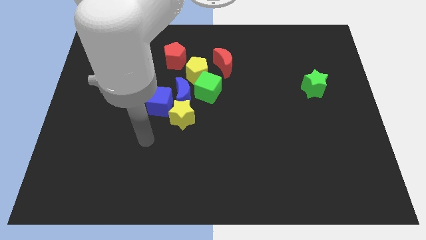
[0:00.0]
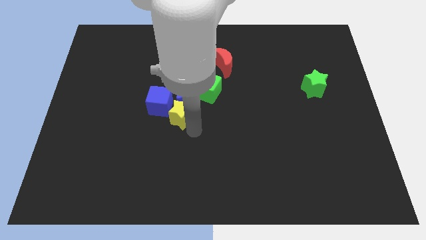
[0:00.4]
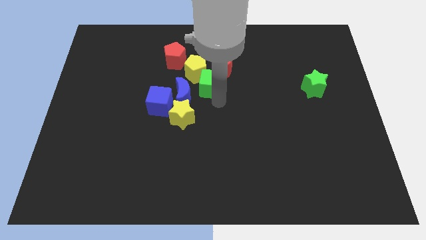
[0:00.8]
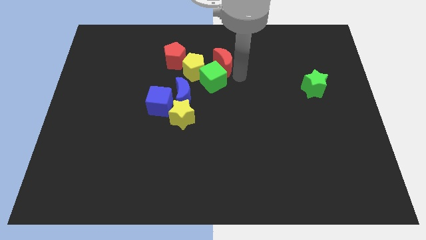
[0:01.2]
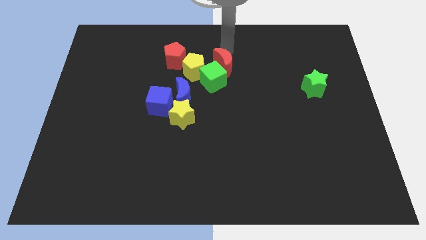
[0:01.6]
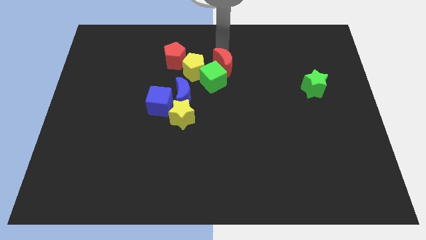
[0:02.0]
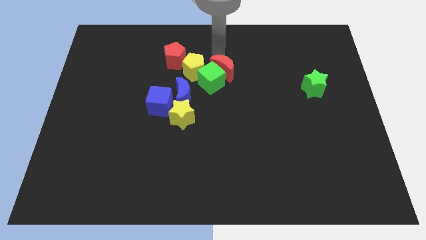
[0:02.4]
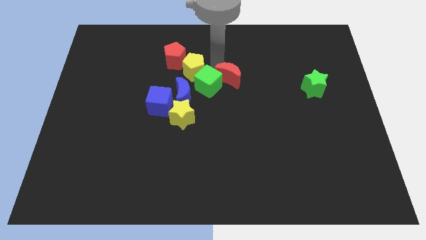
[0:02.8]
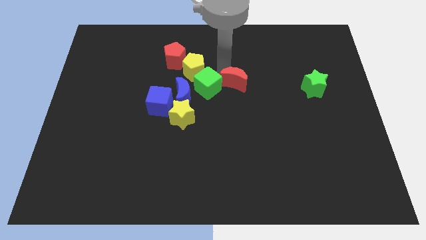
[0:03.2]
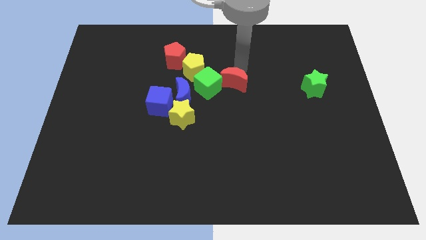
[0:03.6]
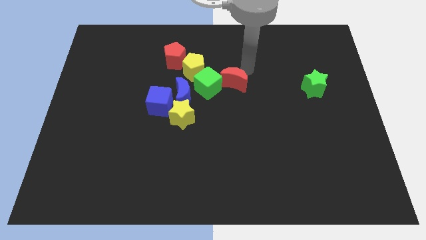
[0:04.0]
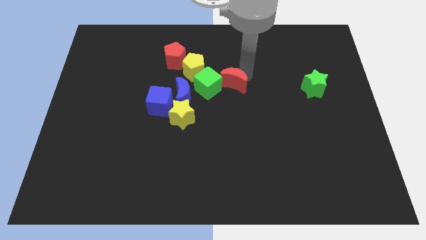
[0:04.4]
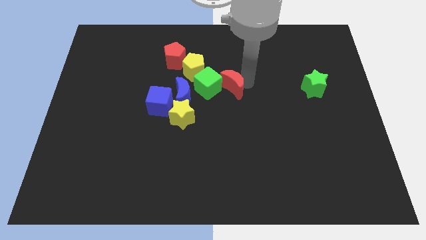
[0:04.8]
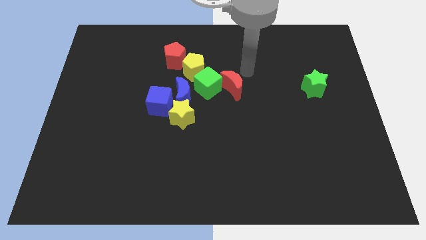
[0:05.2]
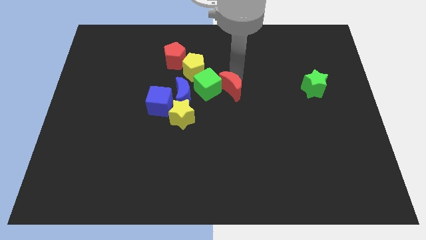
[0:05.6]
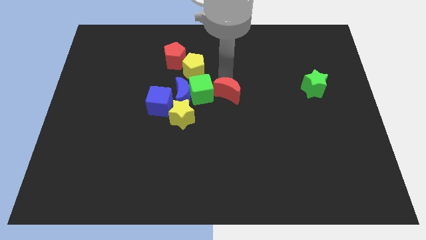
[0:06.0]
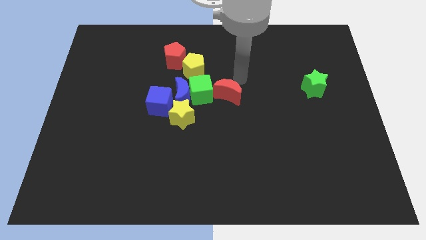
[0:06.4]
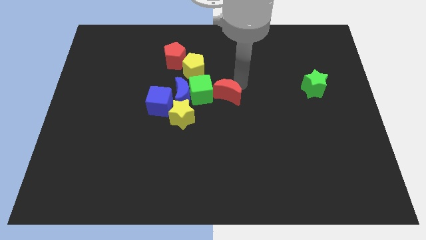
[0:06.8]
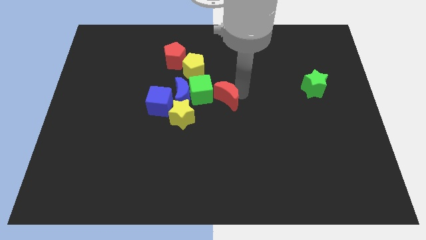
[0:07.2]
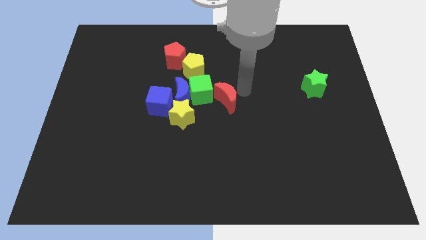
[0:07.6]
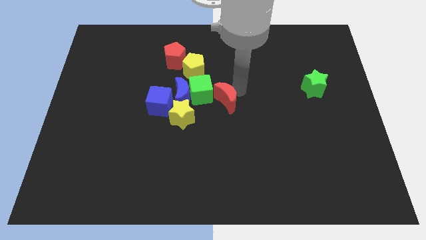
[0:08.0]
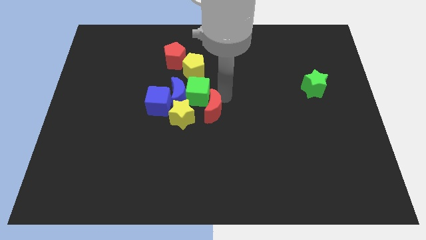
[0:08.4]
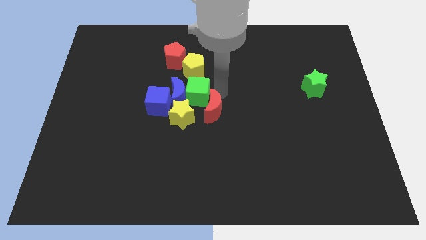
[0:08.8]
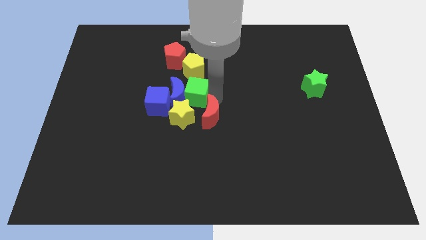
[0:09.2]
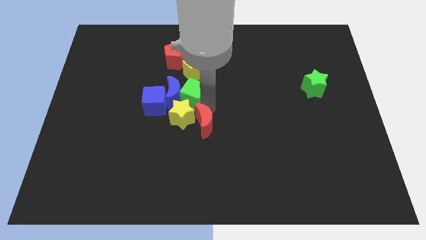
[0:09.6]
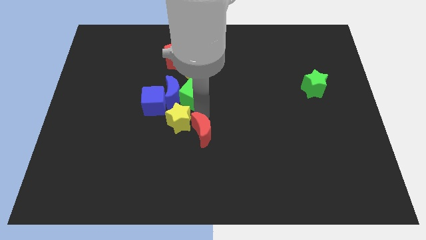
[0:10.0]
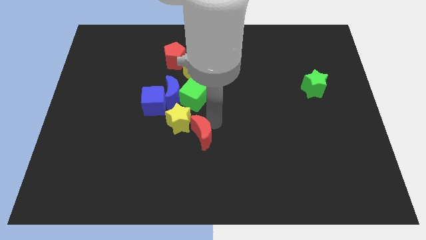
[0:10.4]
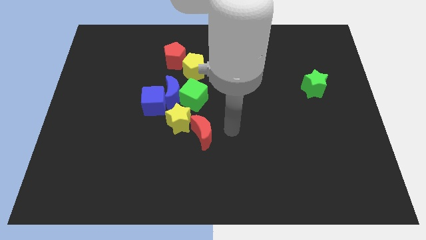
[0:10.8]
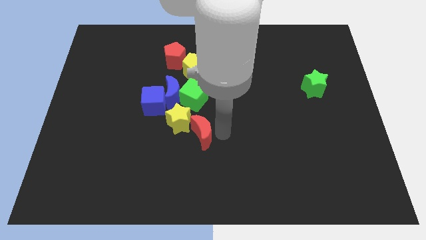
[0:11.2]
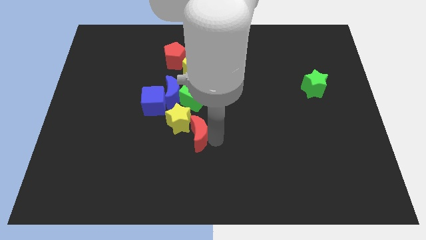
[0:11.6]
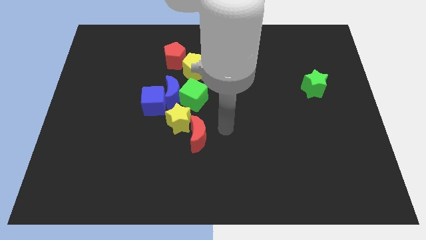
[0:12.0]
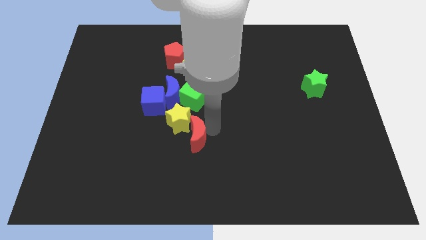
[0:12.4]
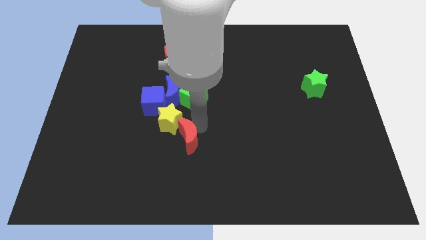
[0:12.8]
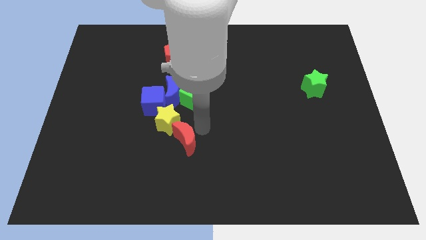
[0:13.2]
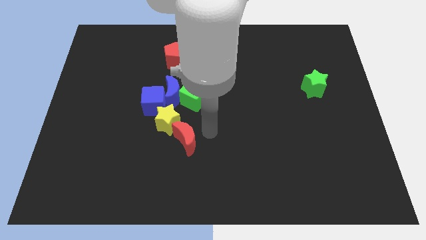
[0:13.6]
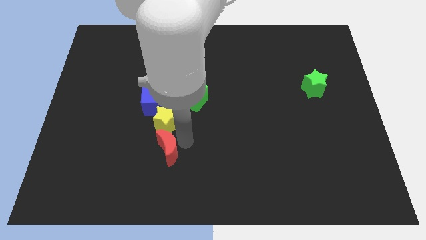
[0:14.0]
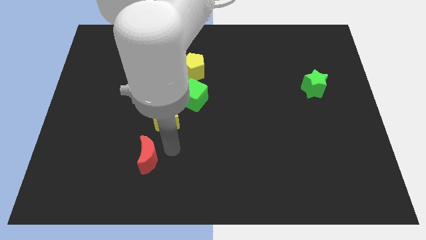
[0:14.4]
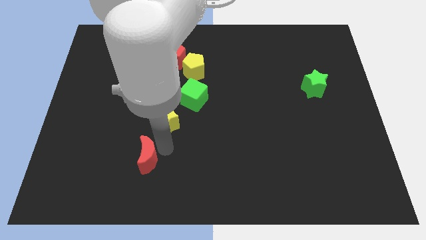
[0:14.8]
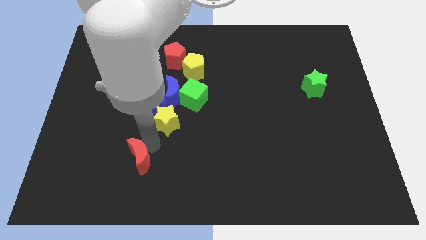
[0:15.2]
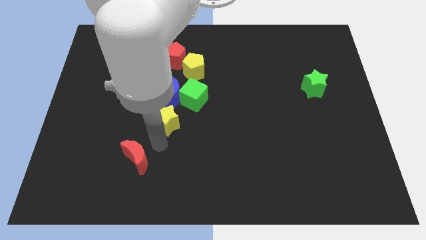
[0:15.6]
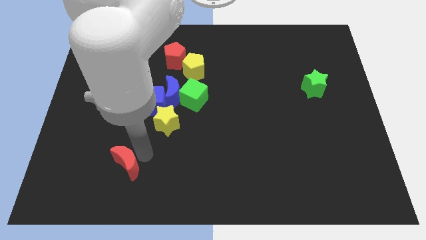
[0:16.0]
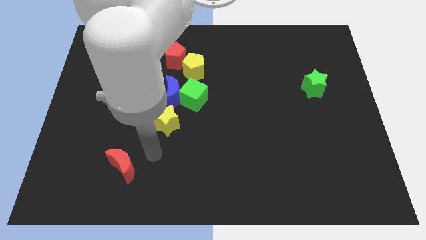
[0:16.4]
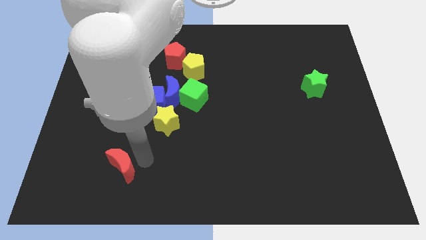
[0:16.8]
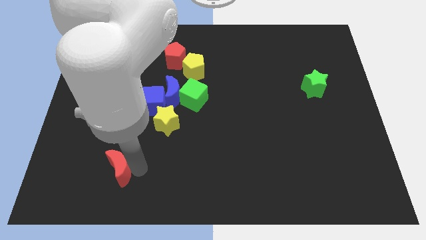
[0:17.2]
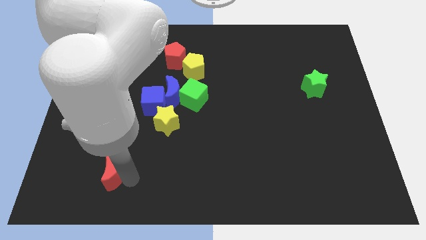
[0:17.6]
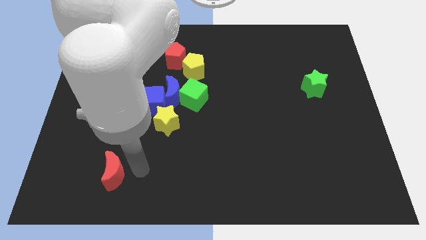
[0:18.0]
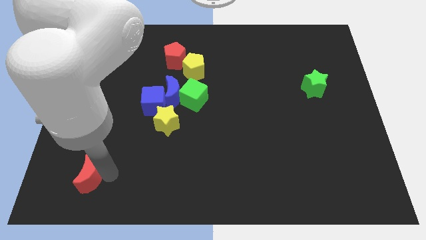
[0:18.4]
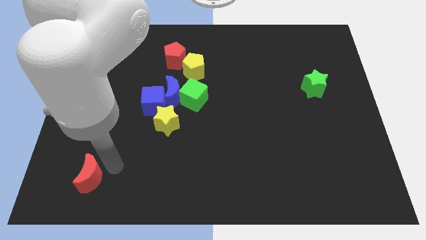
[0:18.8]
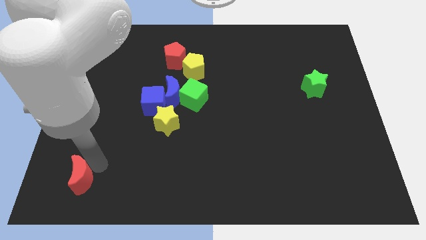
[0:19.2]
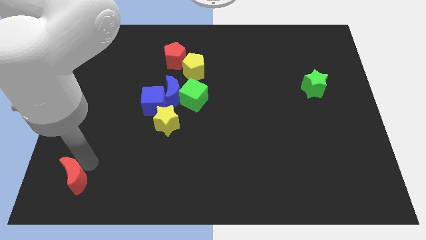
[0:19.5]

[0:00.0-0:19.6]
push the red moon to the lower left corner

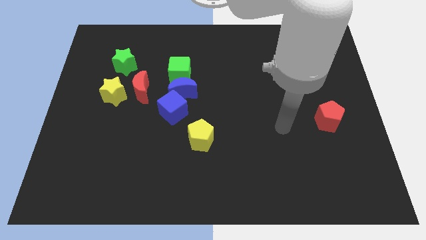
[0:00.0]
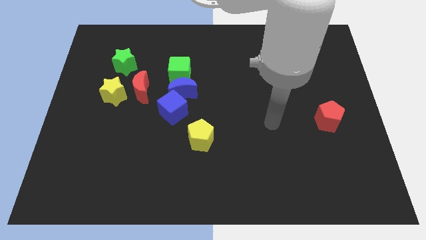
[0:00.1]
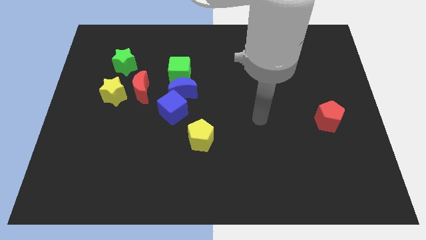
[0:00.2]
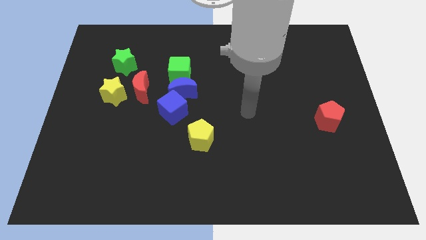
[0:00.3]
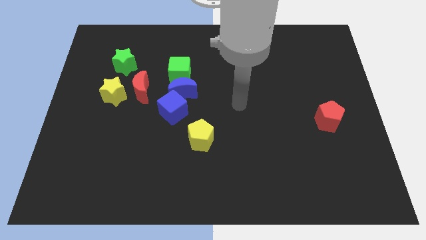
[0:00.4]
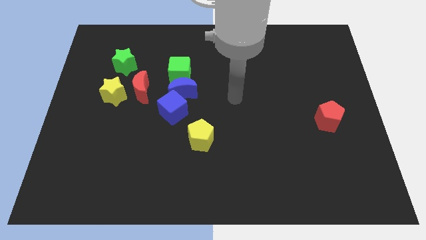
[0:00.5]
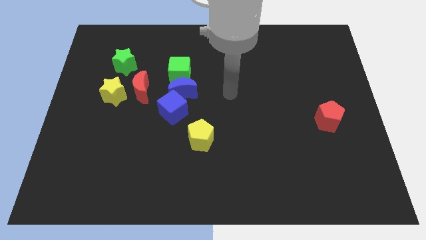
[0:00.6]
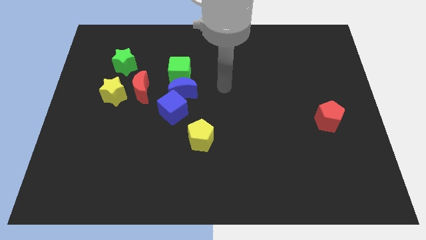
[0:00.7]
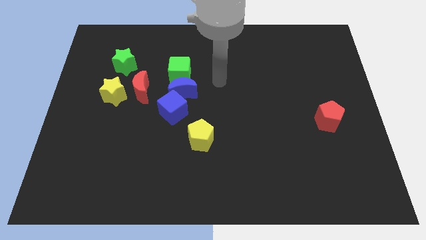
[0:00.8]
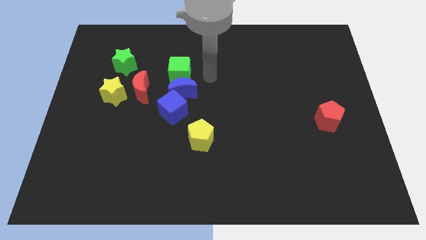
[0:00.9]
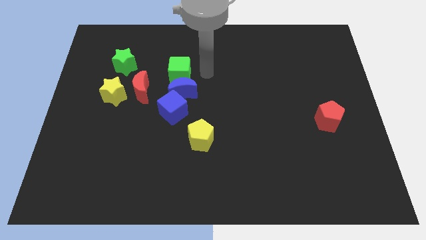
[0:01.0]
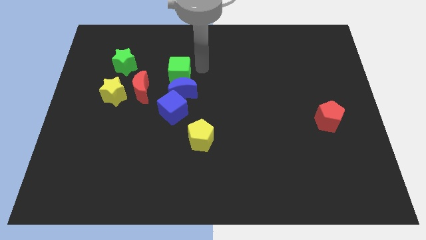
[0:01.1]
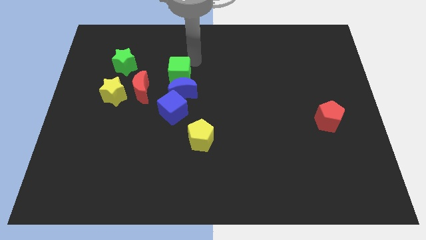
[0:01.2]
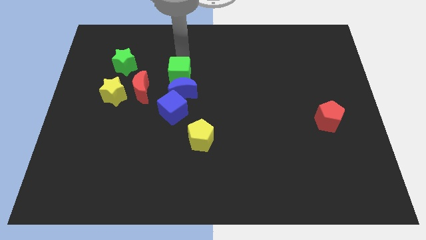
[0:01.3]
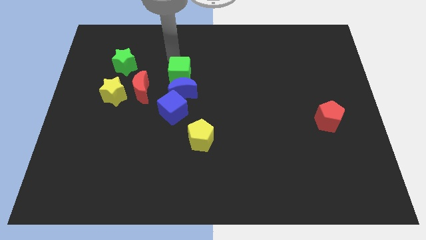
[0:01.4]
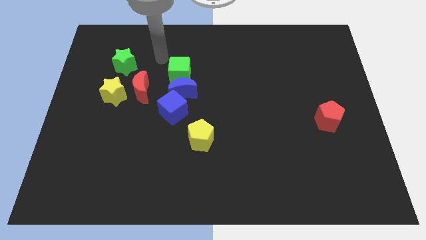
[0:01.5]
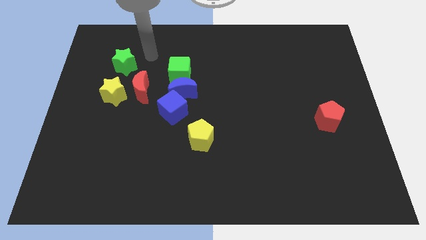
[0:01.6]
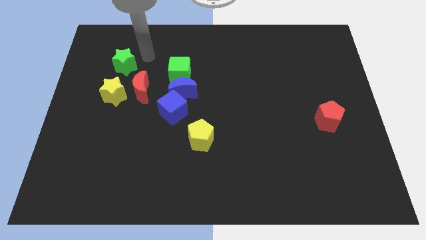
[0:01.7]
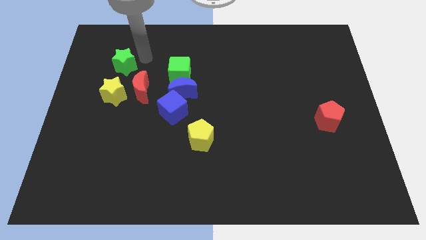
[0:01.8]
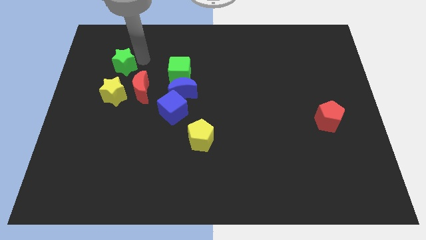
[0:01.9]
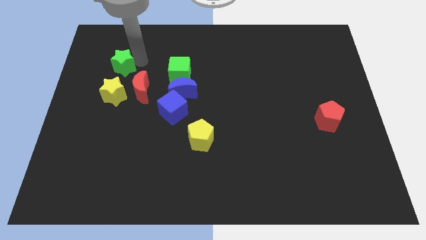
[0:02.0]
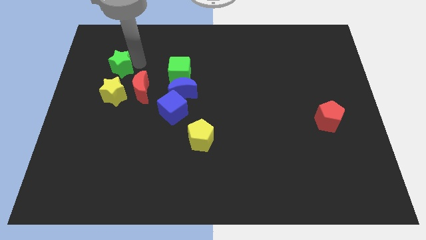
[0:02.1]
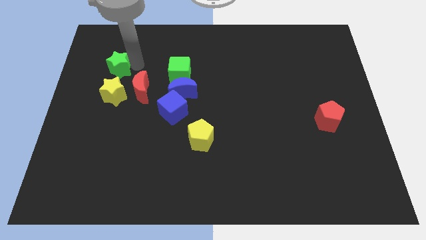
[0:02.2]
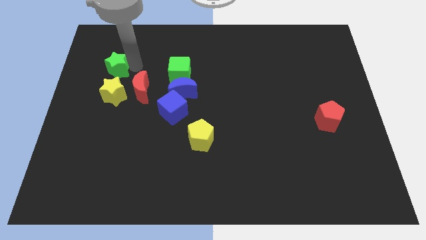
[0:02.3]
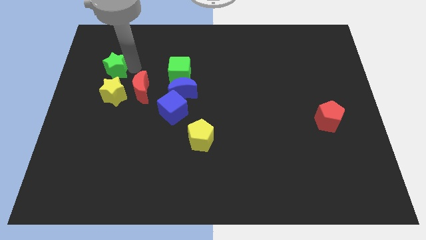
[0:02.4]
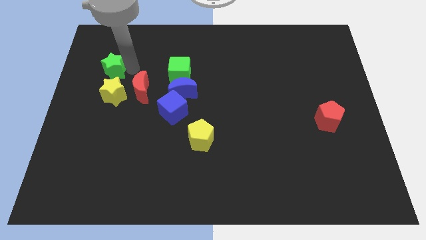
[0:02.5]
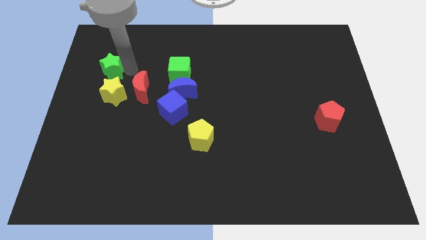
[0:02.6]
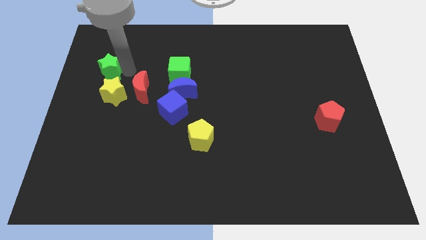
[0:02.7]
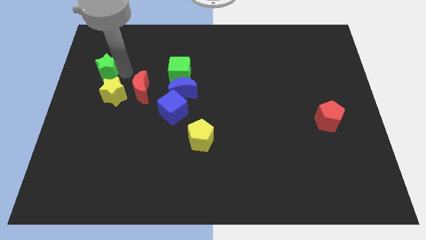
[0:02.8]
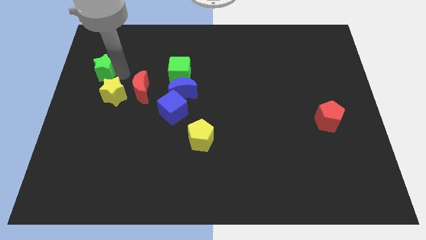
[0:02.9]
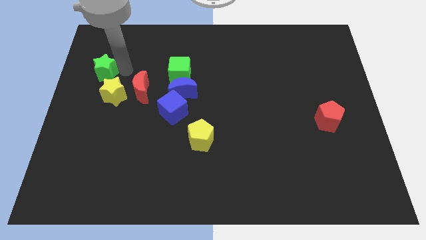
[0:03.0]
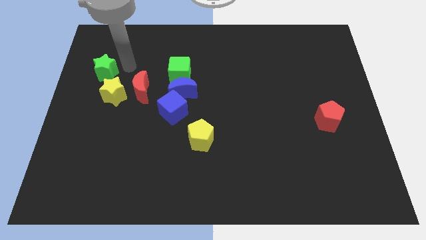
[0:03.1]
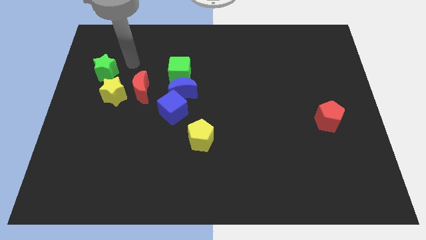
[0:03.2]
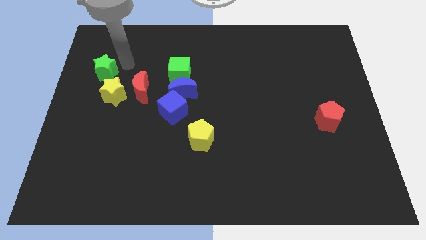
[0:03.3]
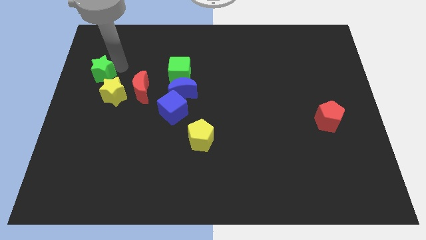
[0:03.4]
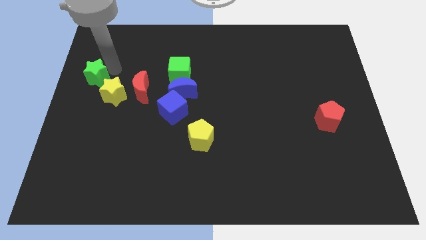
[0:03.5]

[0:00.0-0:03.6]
move the green star to the center left
